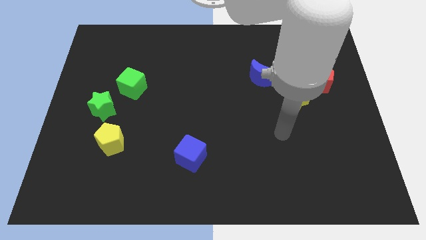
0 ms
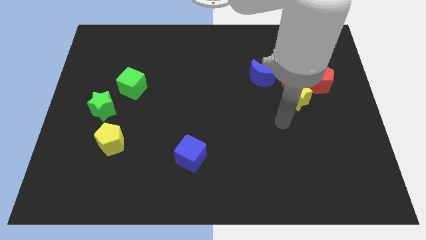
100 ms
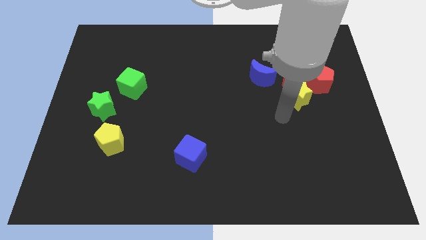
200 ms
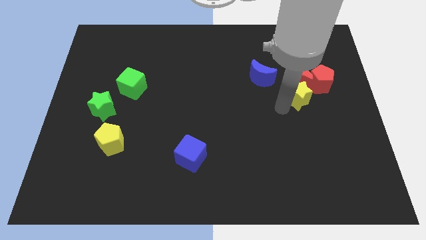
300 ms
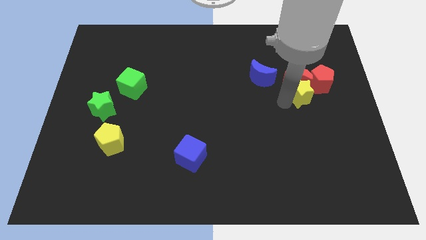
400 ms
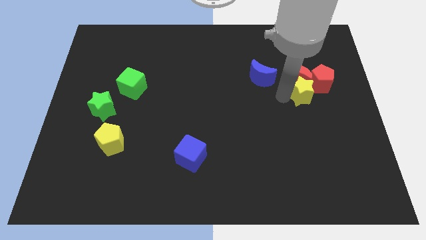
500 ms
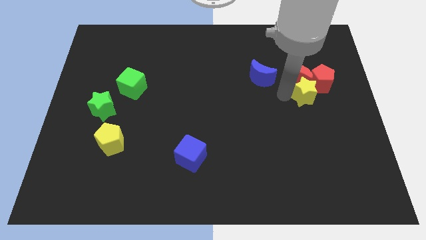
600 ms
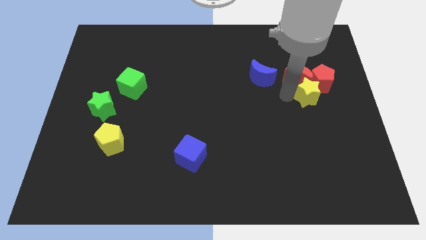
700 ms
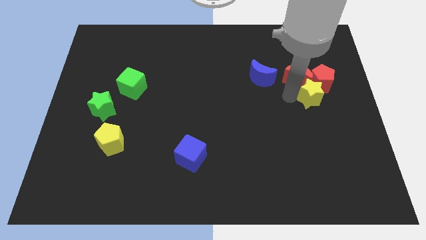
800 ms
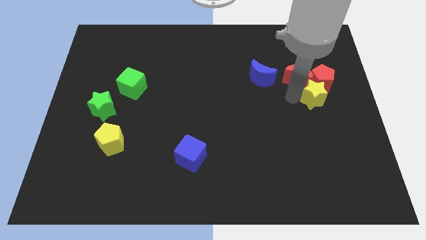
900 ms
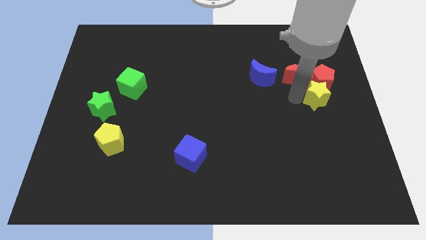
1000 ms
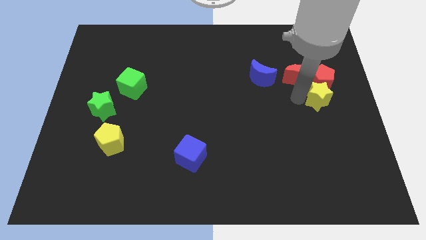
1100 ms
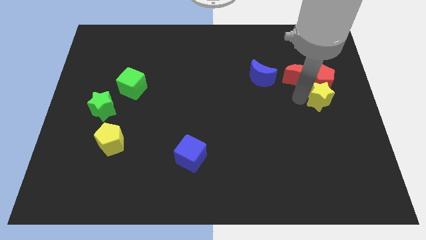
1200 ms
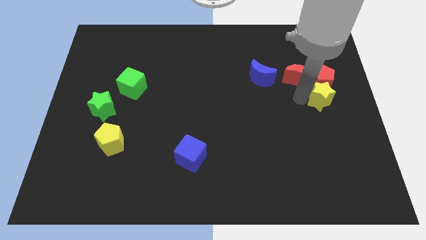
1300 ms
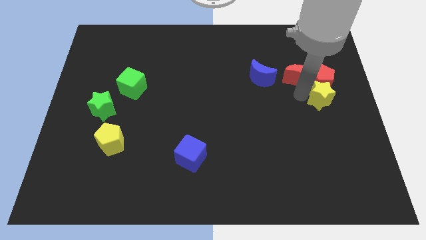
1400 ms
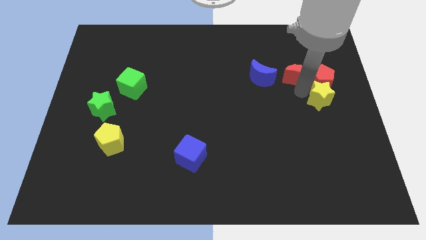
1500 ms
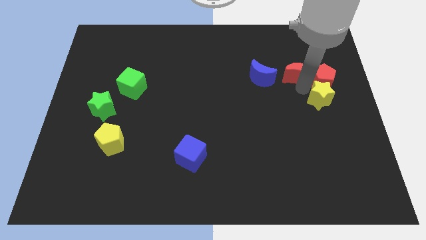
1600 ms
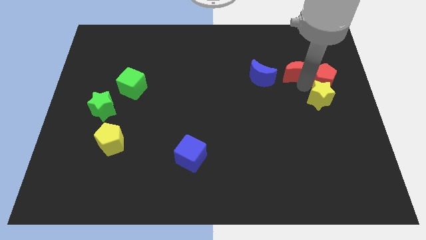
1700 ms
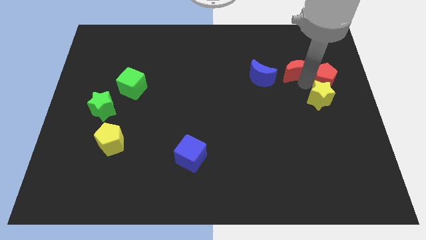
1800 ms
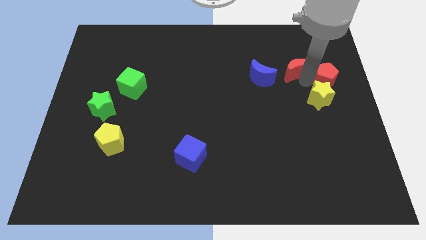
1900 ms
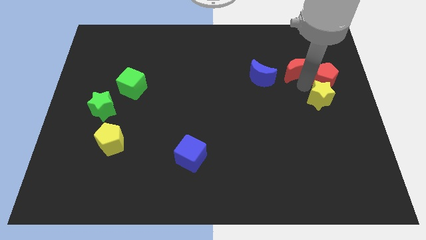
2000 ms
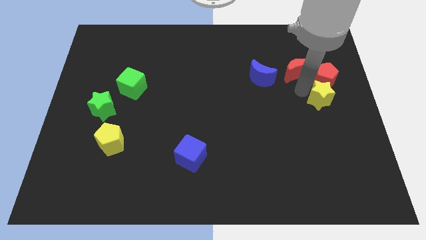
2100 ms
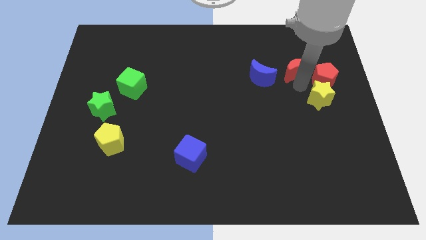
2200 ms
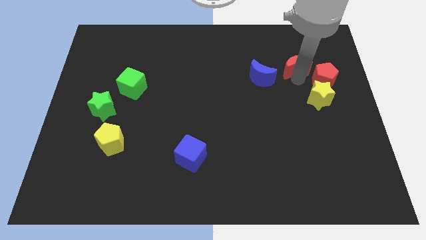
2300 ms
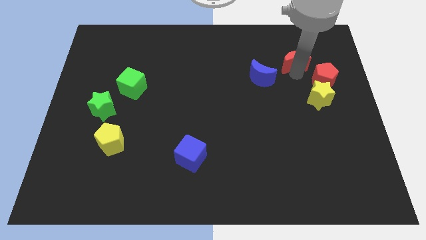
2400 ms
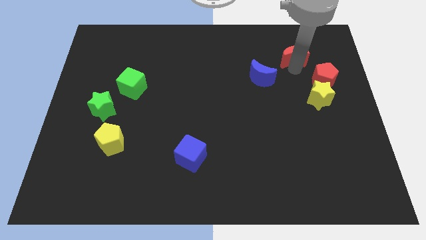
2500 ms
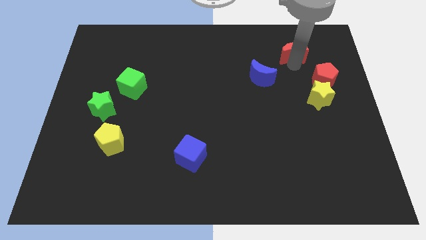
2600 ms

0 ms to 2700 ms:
pull the red moon apart from the group

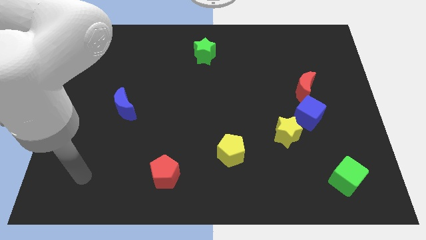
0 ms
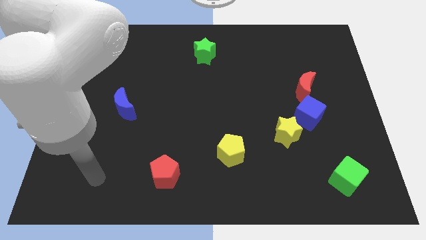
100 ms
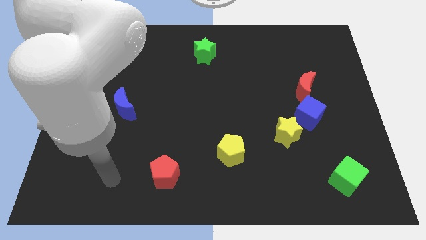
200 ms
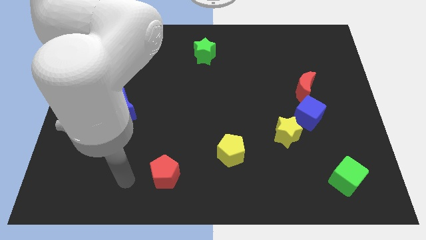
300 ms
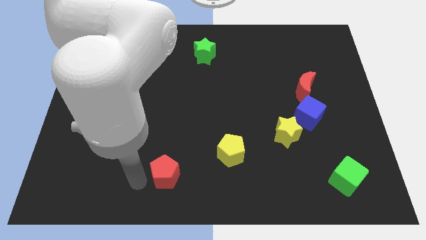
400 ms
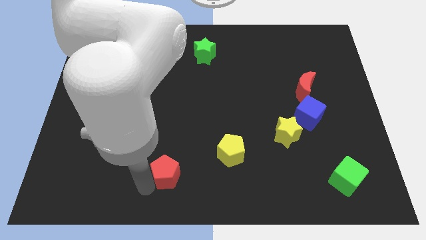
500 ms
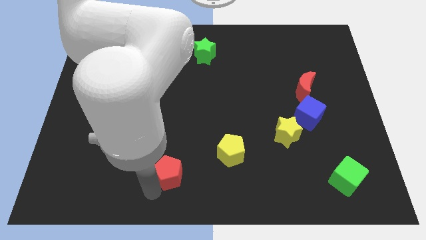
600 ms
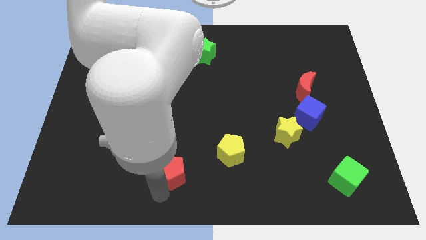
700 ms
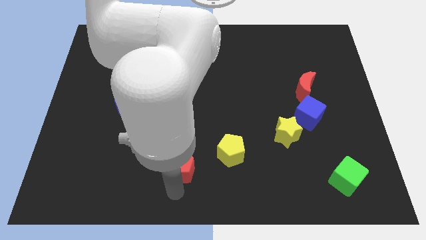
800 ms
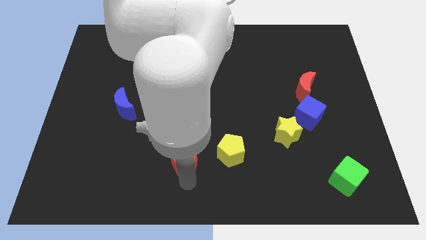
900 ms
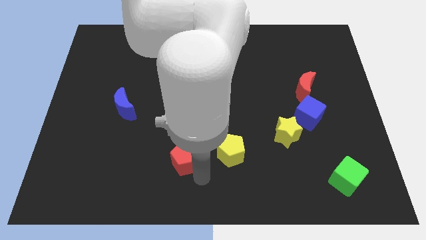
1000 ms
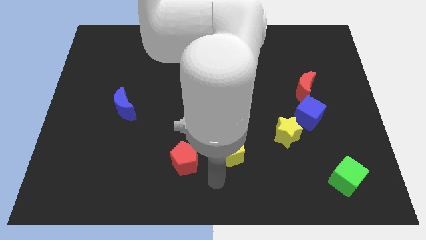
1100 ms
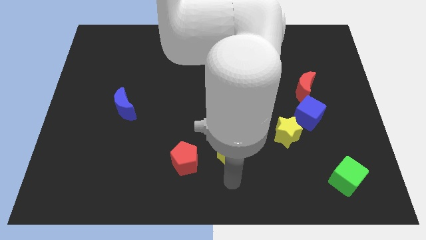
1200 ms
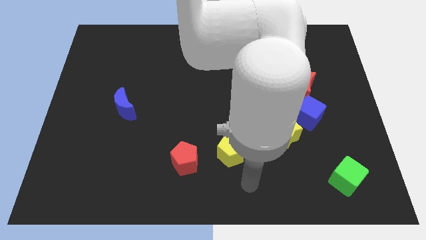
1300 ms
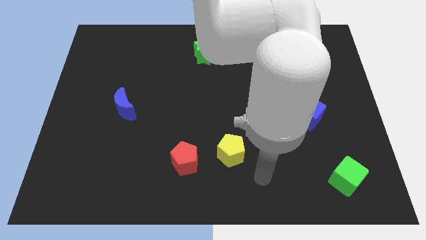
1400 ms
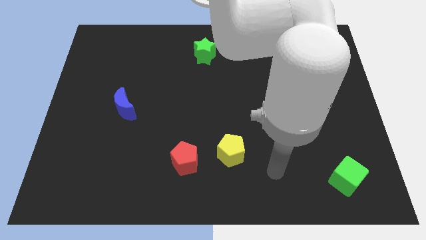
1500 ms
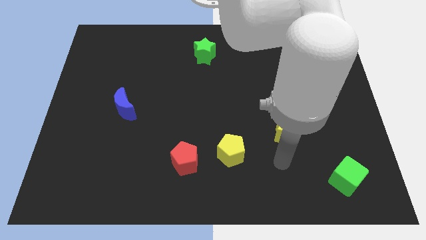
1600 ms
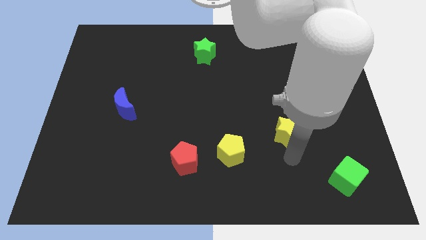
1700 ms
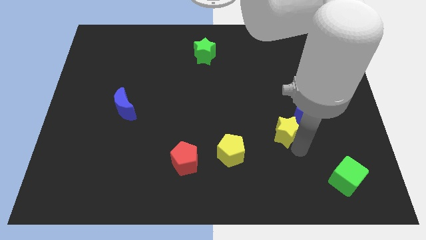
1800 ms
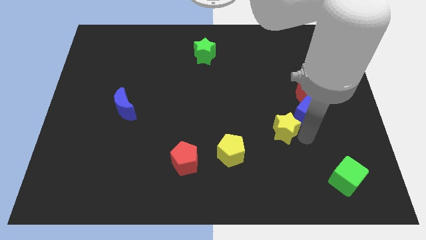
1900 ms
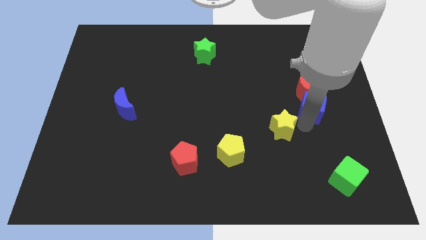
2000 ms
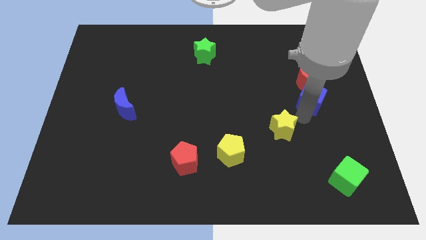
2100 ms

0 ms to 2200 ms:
move the yellow star away from the blue cube

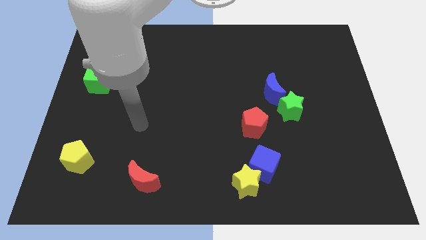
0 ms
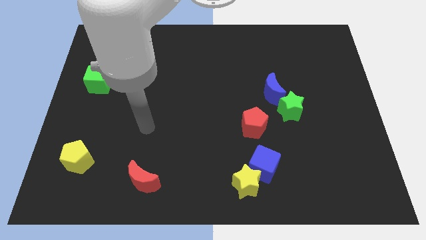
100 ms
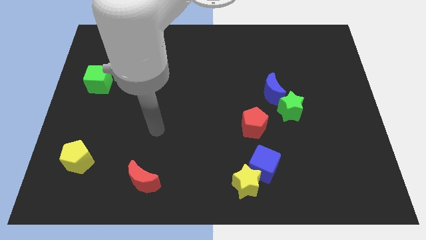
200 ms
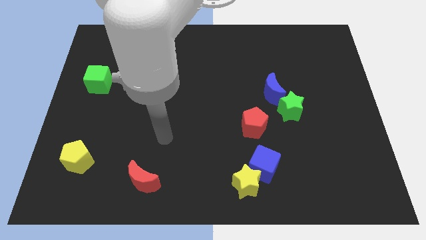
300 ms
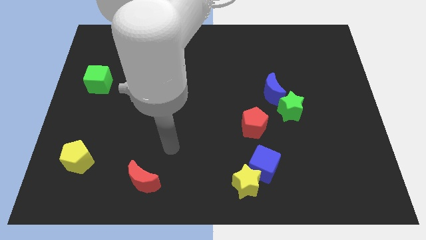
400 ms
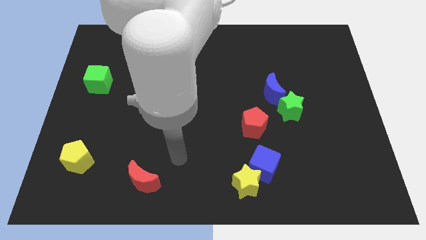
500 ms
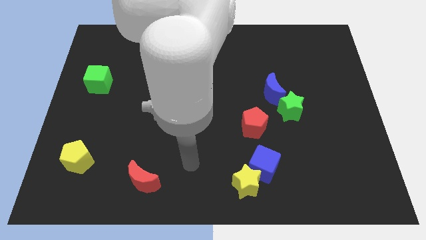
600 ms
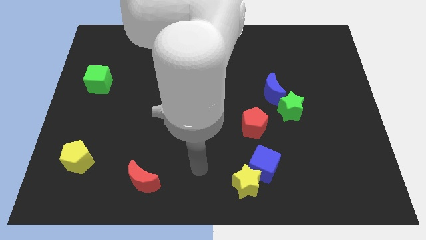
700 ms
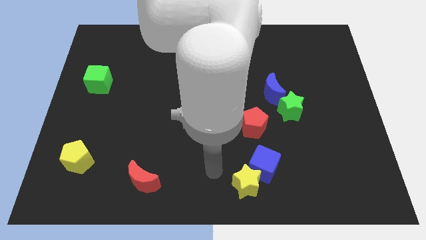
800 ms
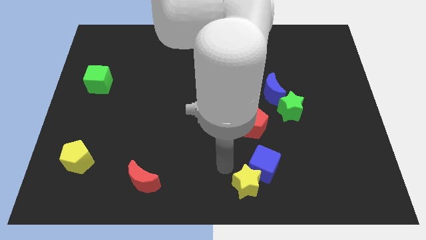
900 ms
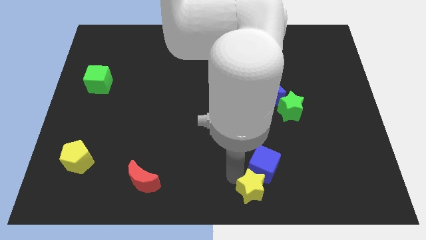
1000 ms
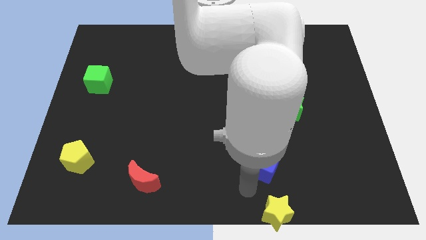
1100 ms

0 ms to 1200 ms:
separate the blue cube from the yellow star

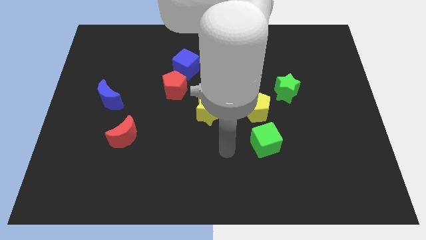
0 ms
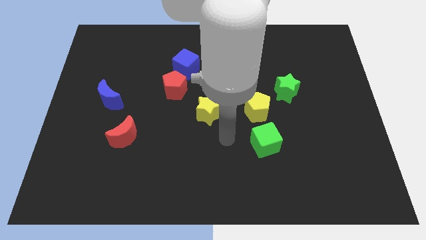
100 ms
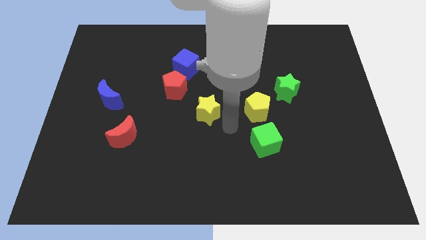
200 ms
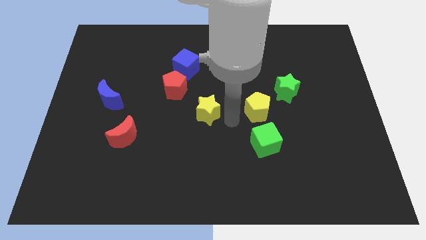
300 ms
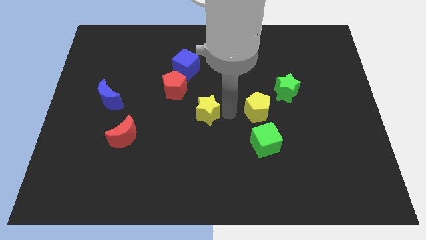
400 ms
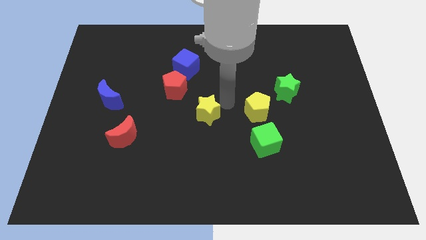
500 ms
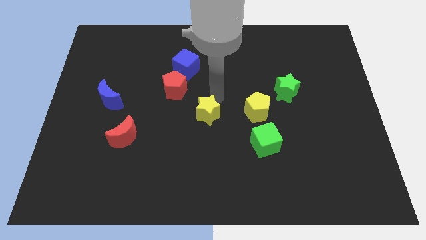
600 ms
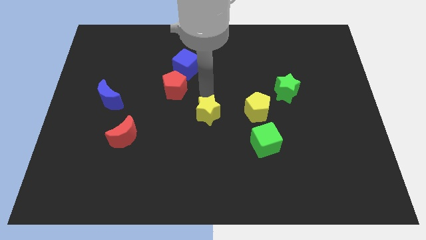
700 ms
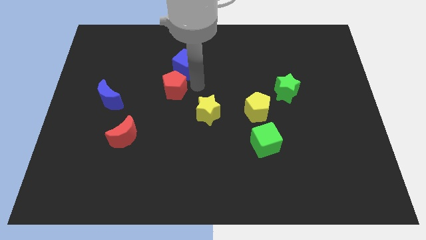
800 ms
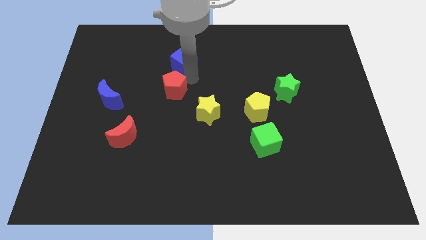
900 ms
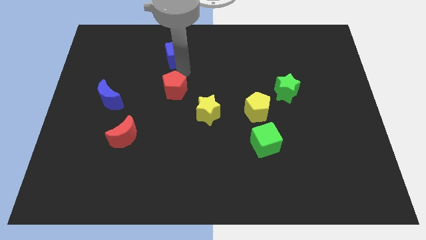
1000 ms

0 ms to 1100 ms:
move the red pentagon away from the blue cube

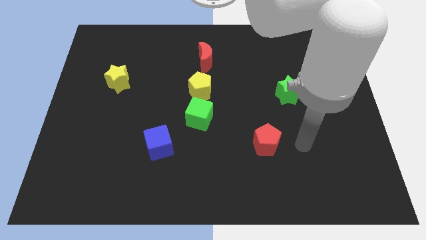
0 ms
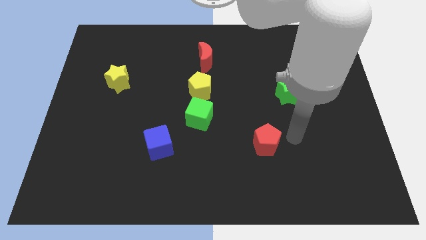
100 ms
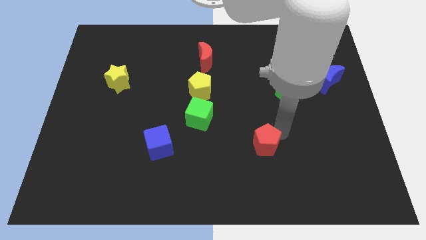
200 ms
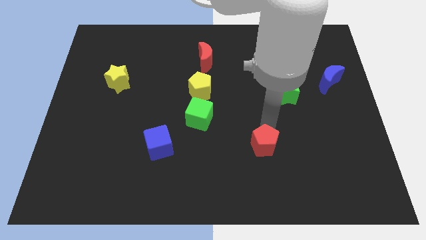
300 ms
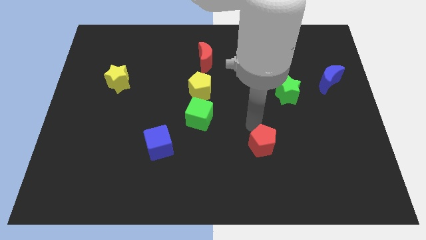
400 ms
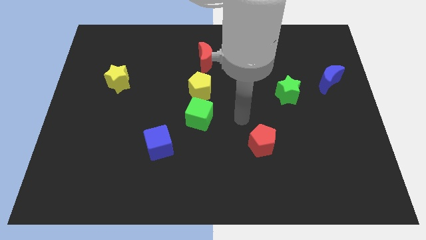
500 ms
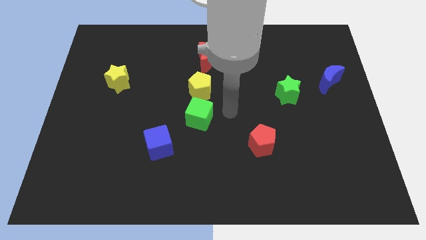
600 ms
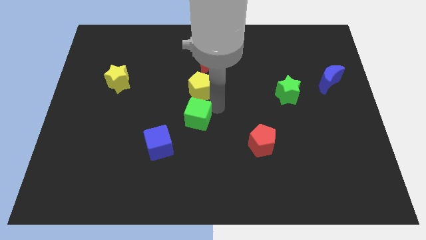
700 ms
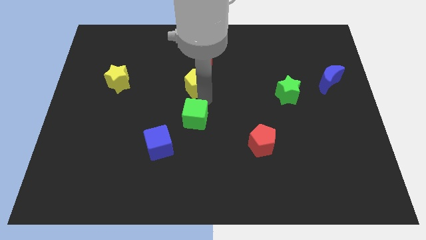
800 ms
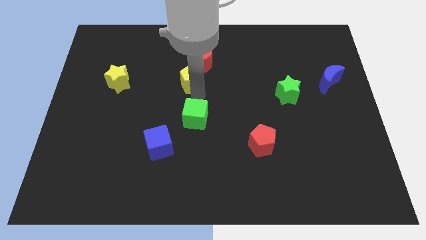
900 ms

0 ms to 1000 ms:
separate the green cube from the yellow pentagon

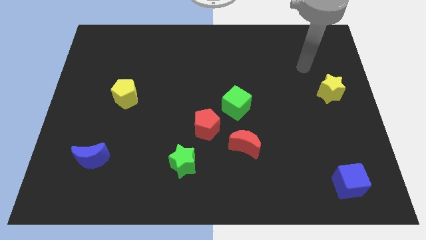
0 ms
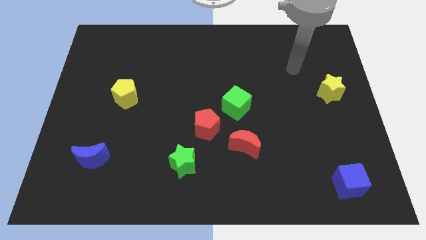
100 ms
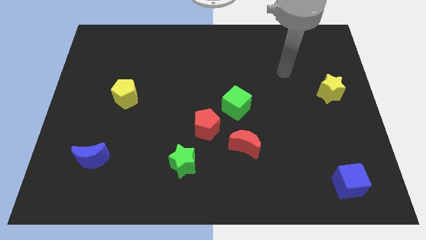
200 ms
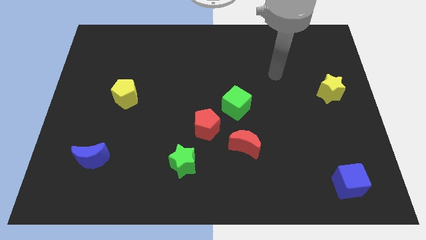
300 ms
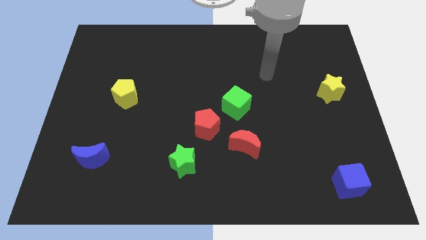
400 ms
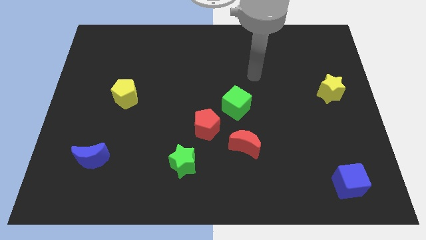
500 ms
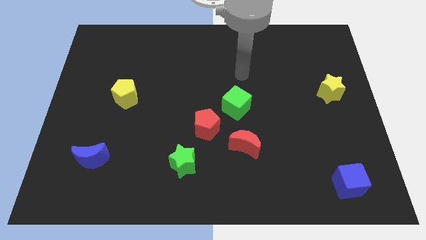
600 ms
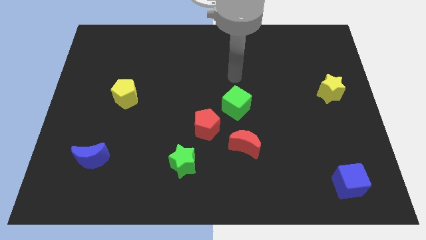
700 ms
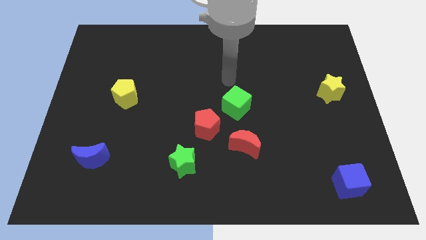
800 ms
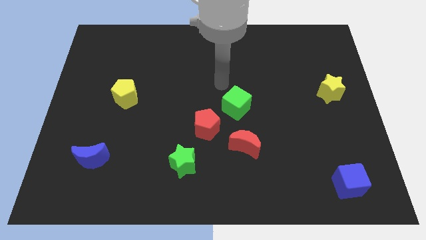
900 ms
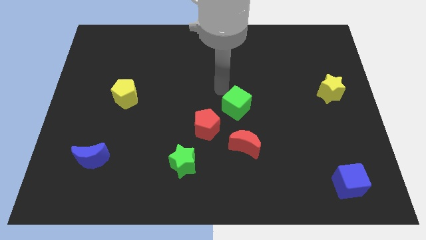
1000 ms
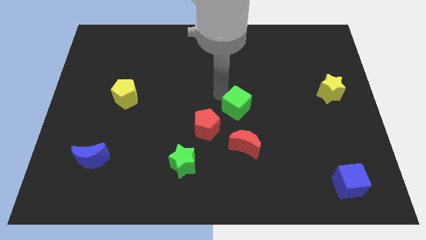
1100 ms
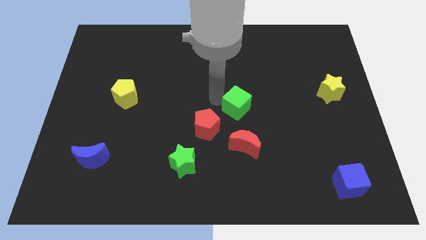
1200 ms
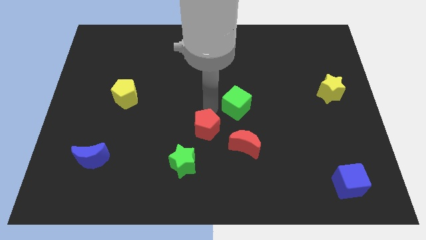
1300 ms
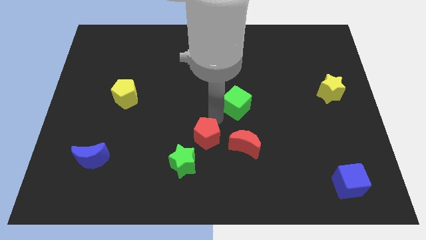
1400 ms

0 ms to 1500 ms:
move the green cube away from the red pentagon
